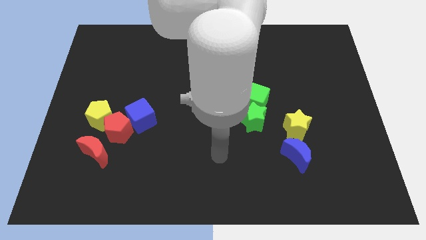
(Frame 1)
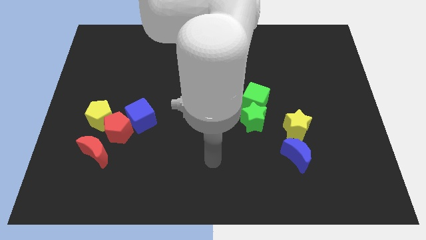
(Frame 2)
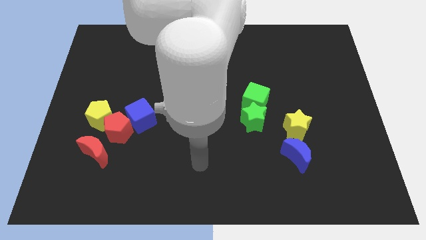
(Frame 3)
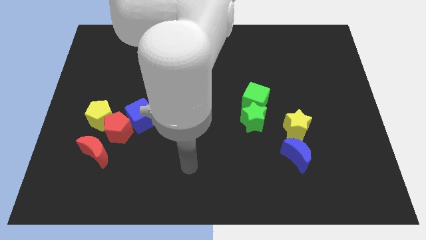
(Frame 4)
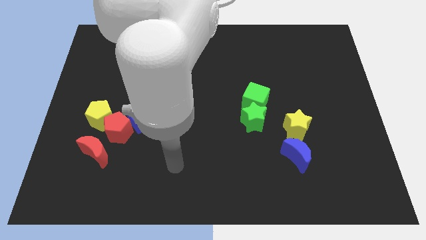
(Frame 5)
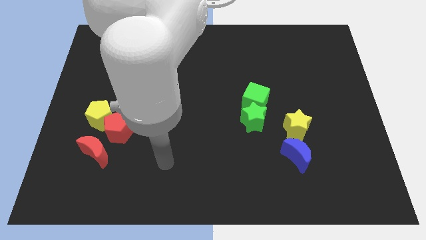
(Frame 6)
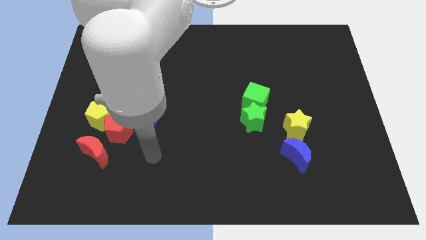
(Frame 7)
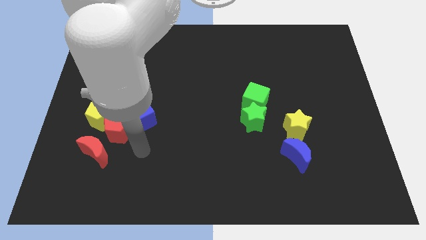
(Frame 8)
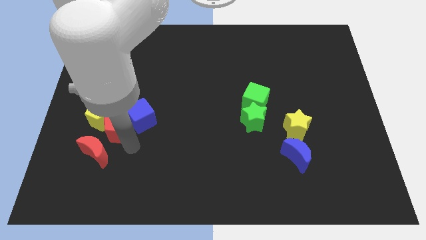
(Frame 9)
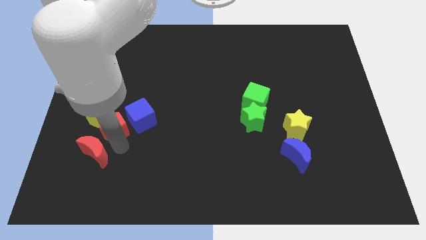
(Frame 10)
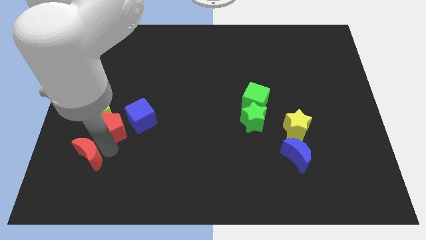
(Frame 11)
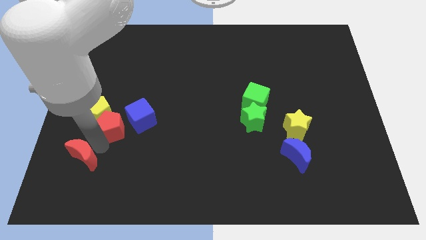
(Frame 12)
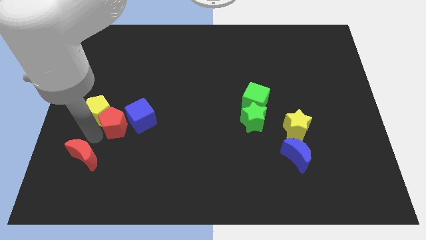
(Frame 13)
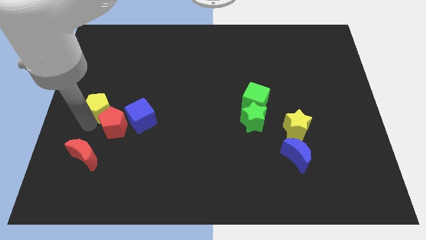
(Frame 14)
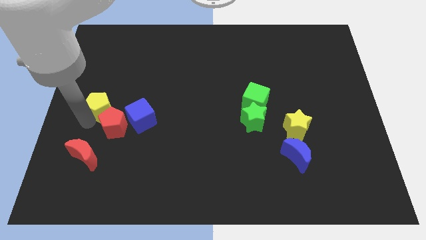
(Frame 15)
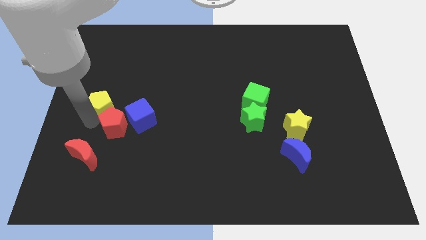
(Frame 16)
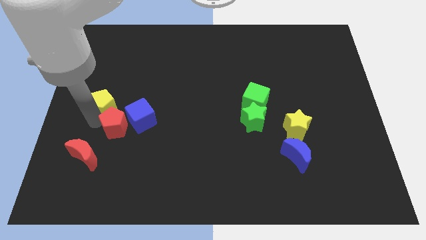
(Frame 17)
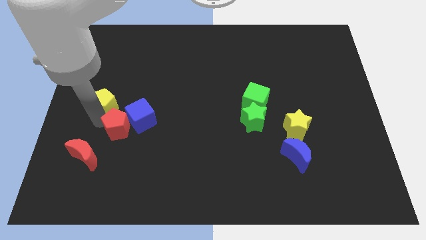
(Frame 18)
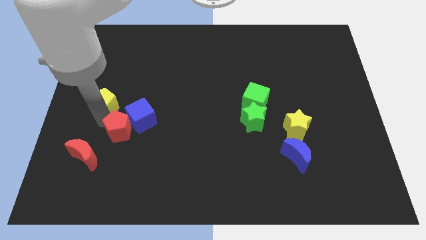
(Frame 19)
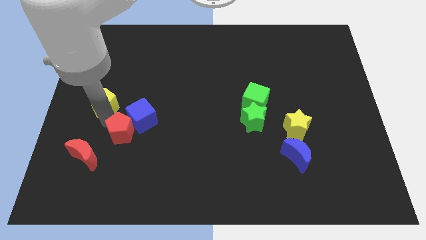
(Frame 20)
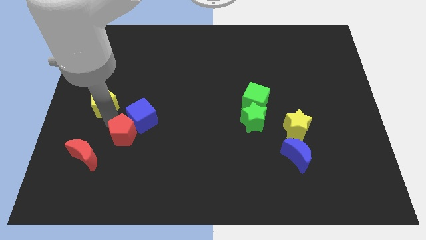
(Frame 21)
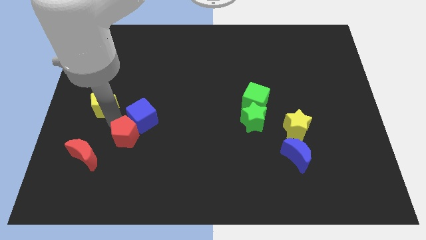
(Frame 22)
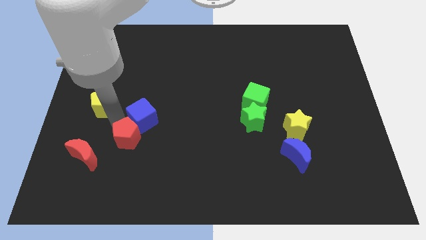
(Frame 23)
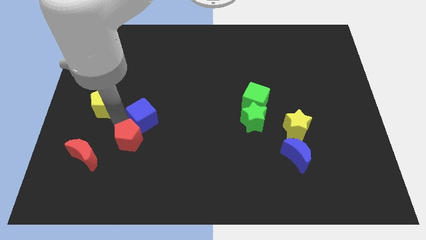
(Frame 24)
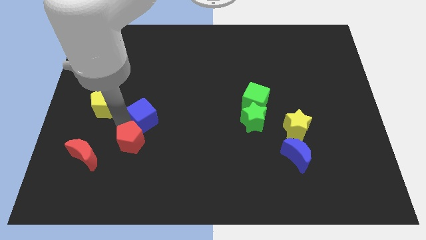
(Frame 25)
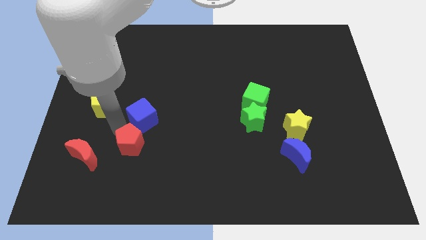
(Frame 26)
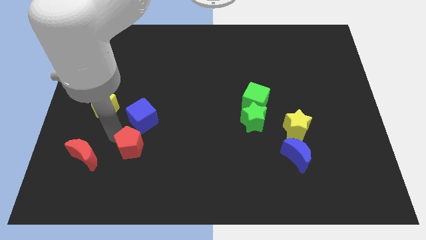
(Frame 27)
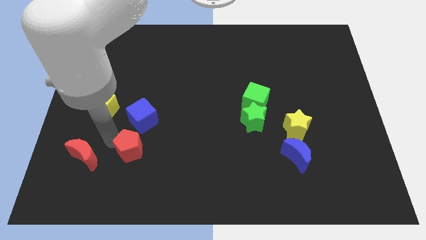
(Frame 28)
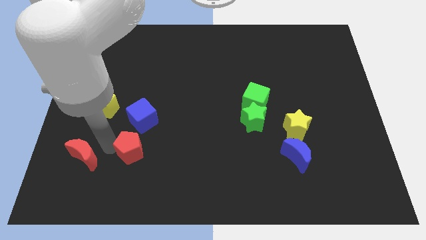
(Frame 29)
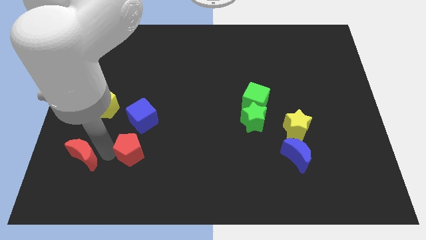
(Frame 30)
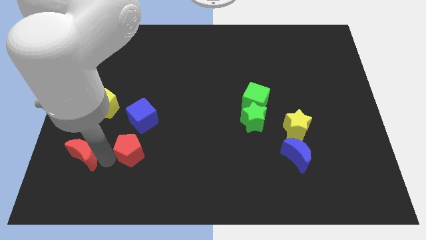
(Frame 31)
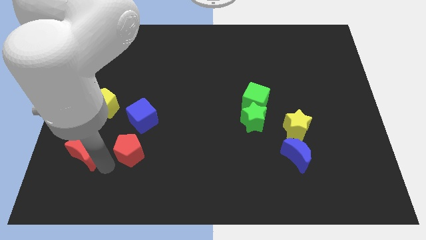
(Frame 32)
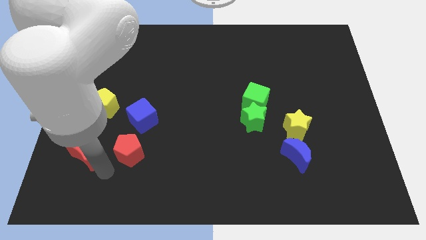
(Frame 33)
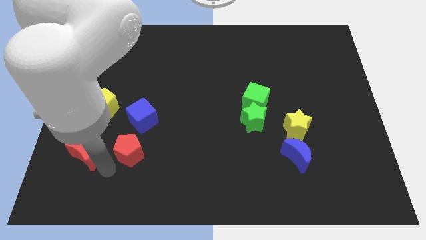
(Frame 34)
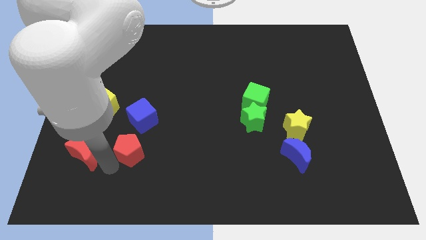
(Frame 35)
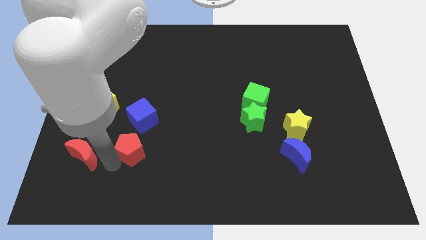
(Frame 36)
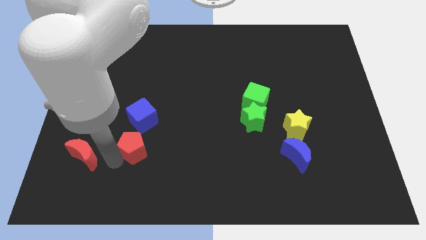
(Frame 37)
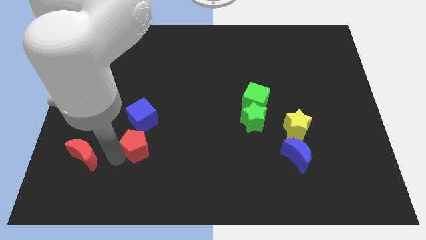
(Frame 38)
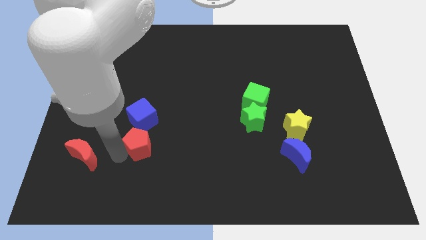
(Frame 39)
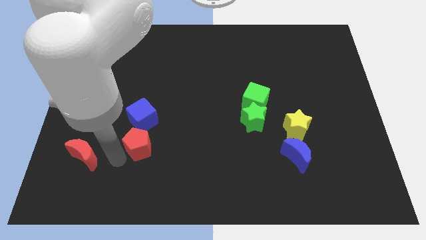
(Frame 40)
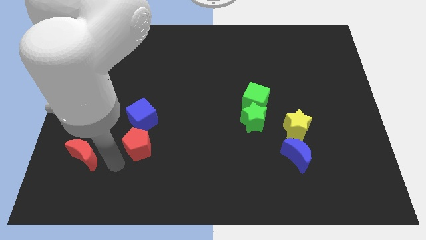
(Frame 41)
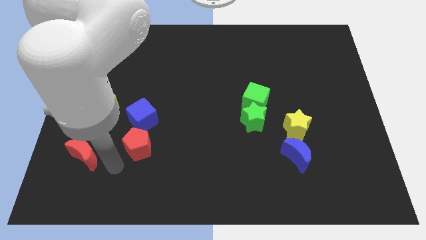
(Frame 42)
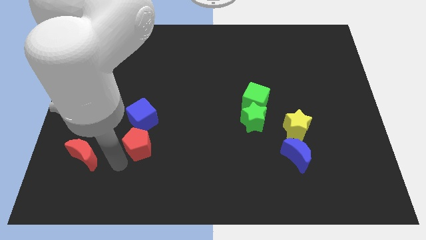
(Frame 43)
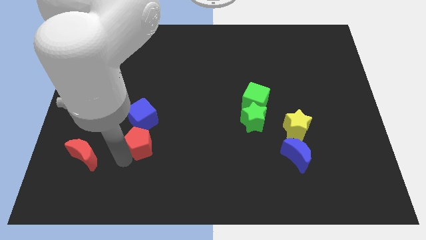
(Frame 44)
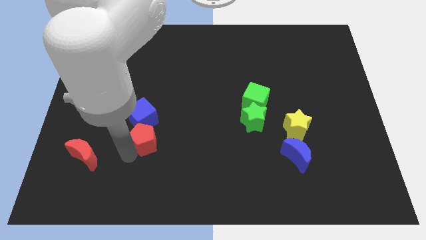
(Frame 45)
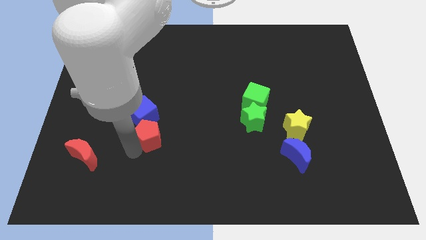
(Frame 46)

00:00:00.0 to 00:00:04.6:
slightly slide the red pentagon right

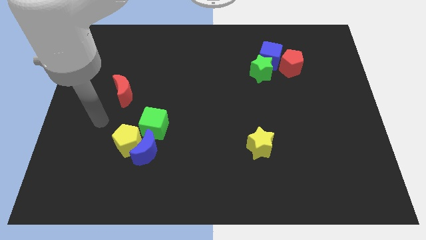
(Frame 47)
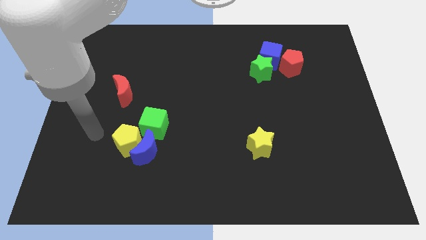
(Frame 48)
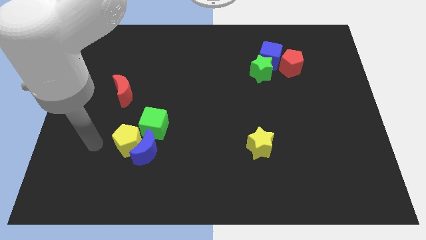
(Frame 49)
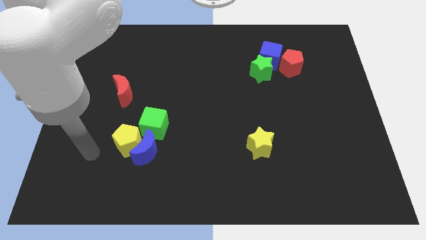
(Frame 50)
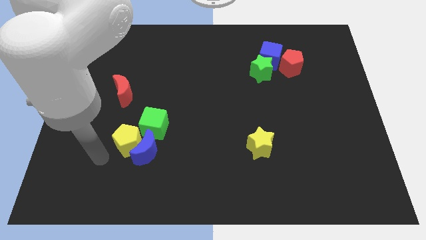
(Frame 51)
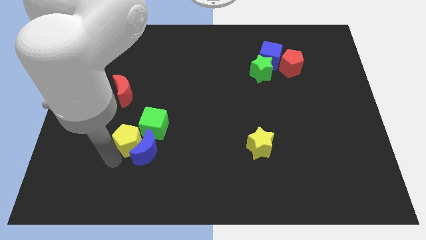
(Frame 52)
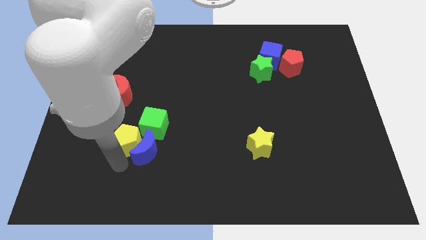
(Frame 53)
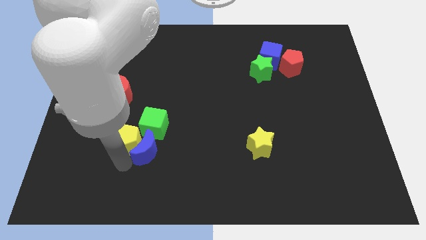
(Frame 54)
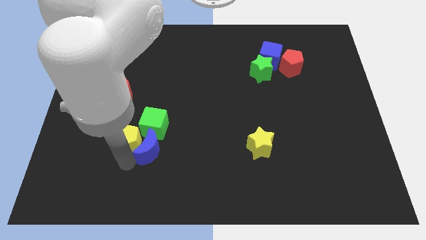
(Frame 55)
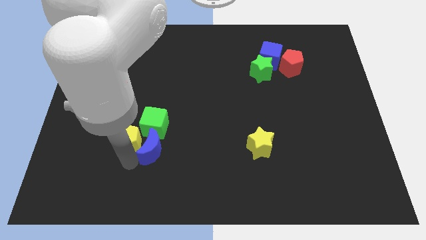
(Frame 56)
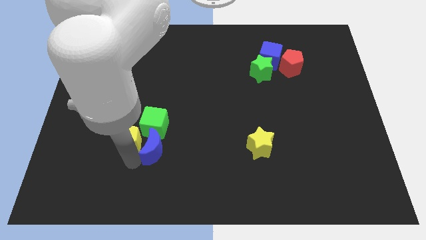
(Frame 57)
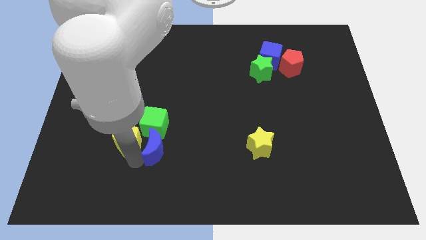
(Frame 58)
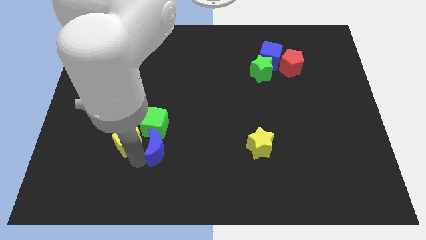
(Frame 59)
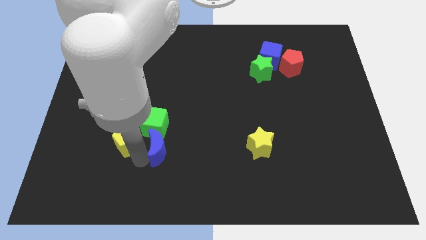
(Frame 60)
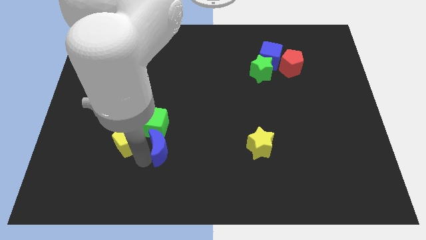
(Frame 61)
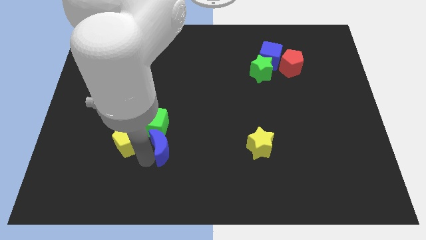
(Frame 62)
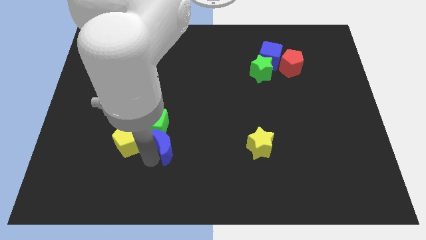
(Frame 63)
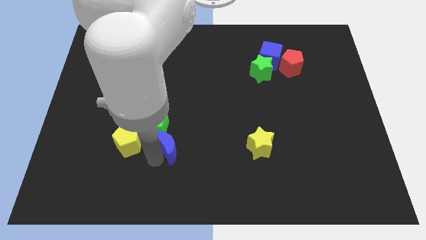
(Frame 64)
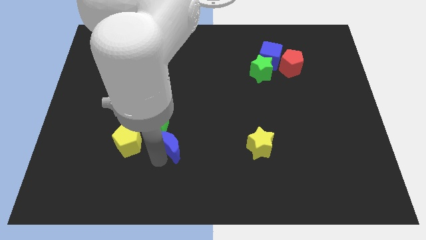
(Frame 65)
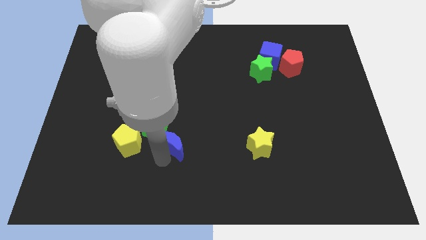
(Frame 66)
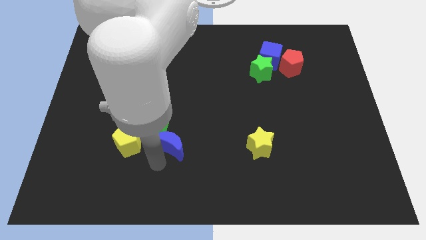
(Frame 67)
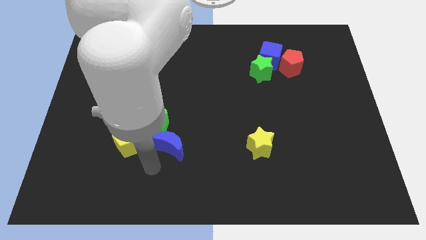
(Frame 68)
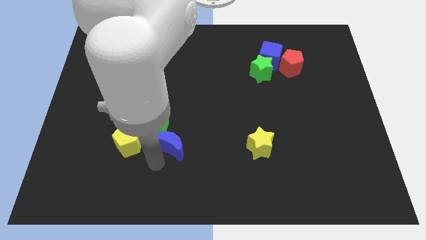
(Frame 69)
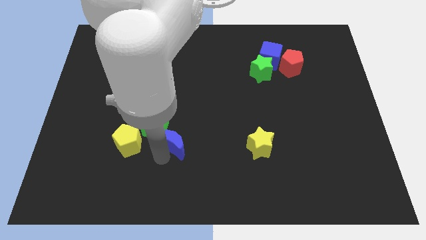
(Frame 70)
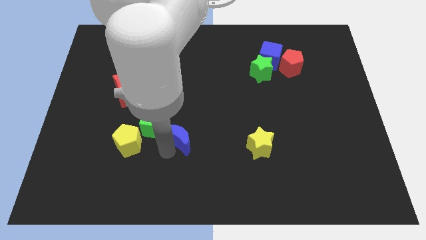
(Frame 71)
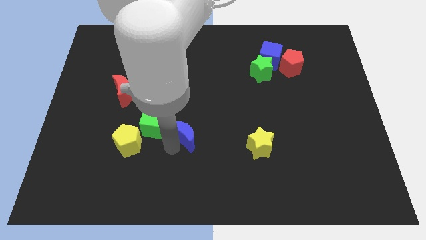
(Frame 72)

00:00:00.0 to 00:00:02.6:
move the blue moon upwards and then to the right a little bit

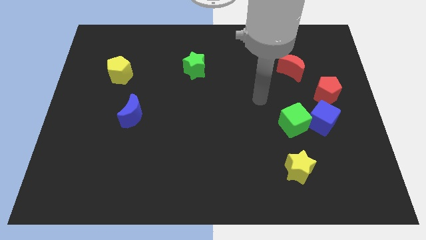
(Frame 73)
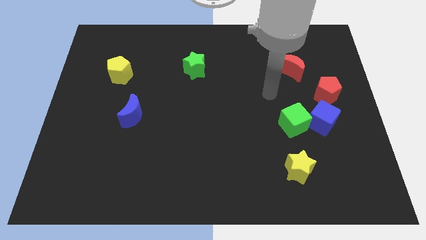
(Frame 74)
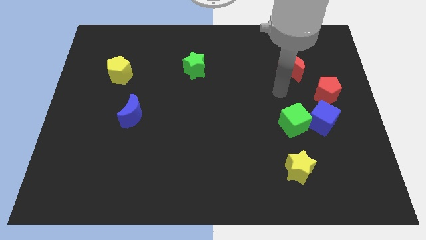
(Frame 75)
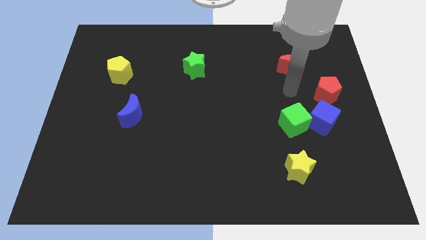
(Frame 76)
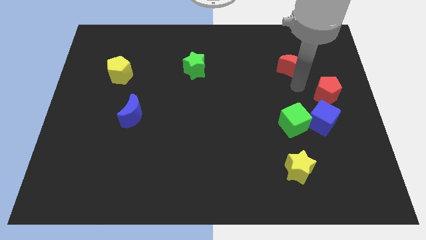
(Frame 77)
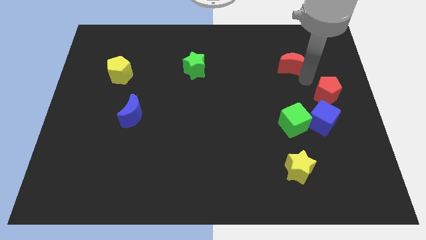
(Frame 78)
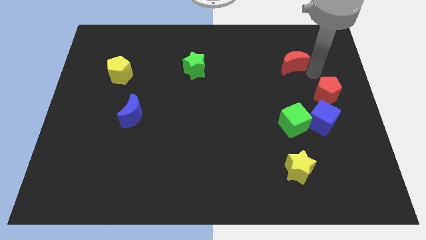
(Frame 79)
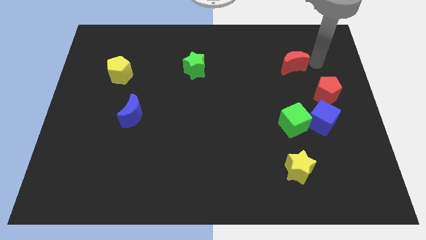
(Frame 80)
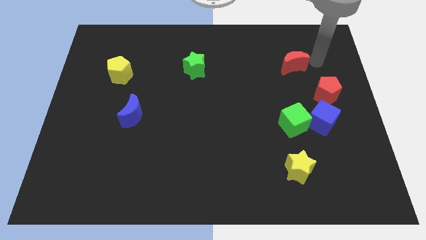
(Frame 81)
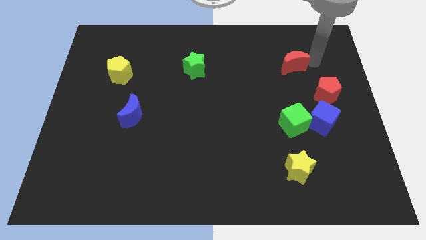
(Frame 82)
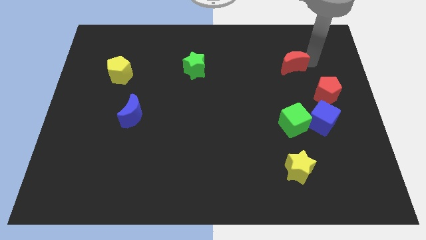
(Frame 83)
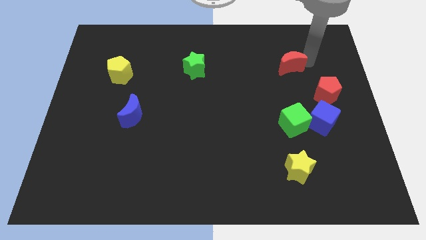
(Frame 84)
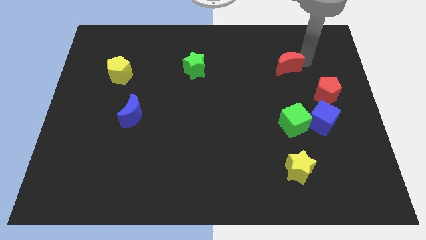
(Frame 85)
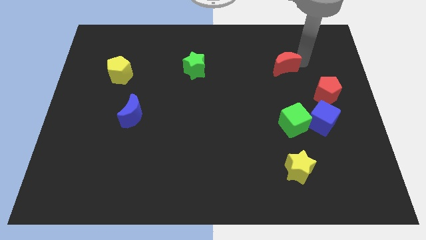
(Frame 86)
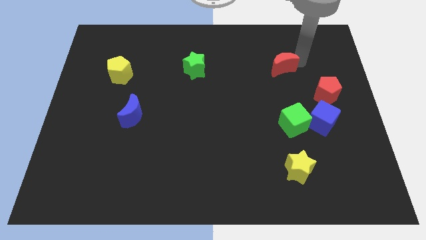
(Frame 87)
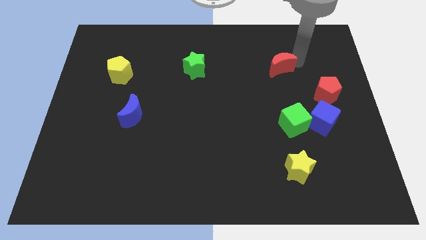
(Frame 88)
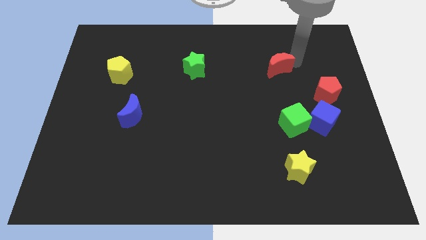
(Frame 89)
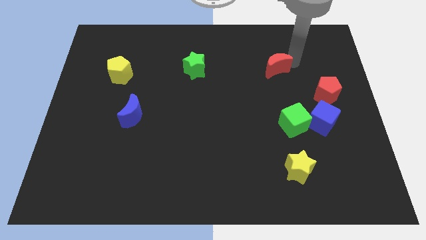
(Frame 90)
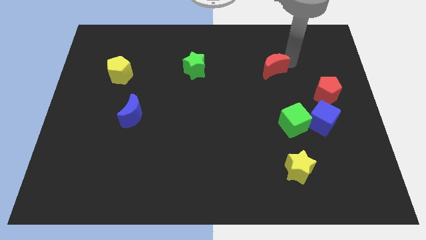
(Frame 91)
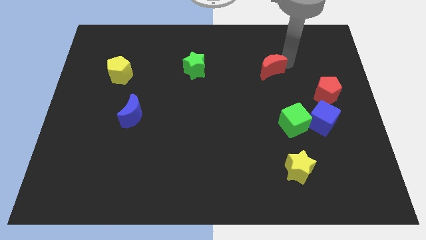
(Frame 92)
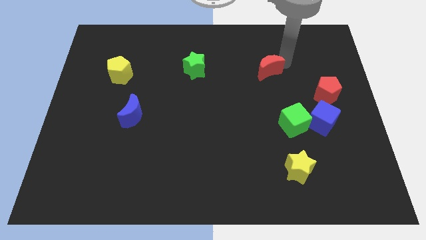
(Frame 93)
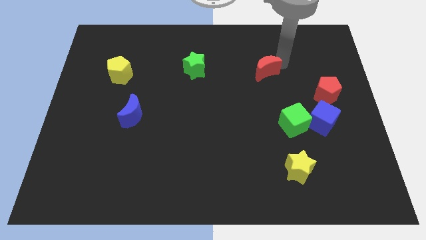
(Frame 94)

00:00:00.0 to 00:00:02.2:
move the red moon a little bit left
